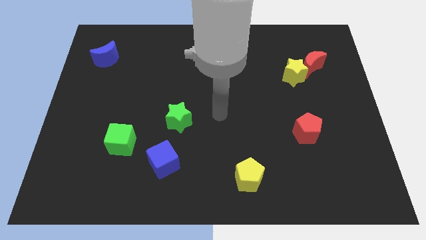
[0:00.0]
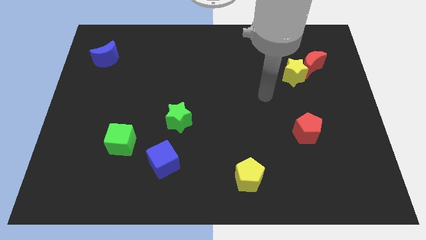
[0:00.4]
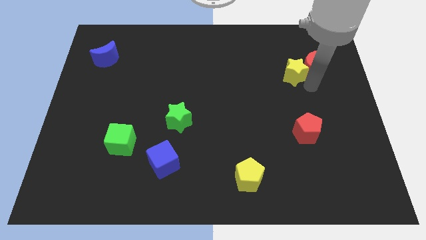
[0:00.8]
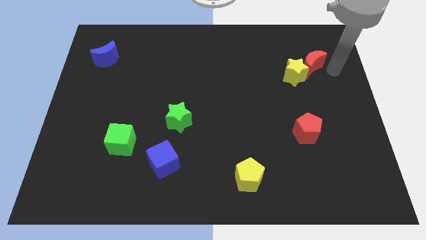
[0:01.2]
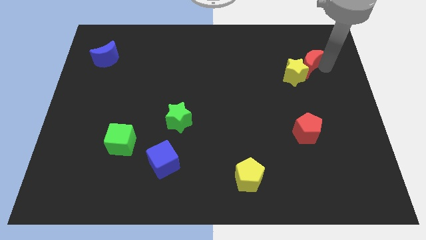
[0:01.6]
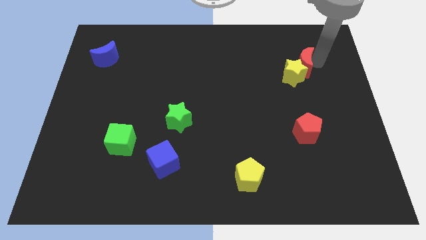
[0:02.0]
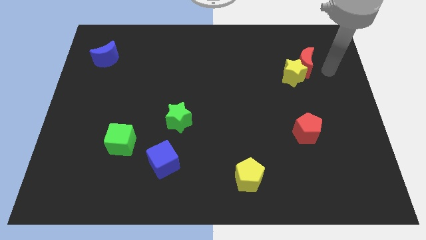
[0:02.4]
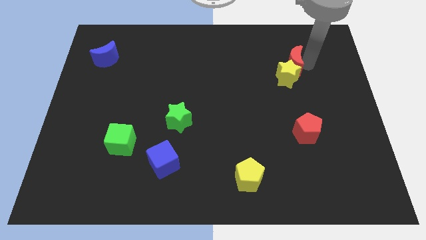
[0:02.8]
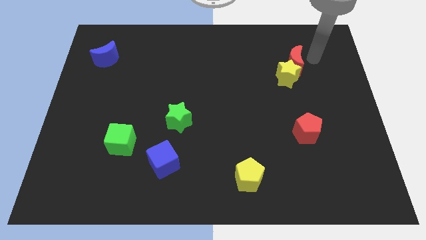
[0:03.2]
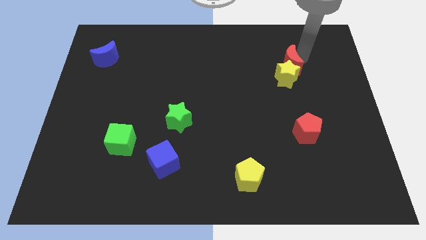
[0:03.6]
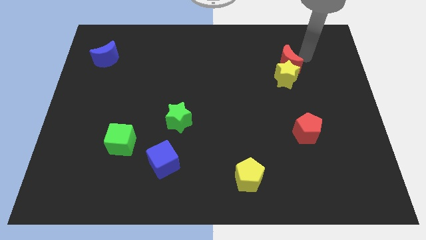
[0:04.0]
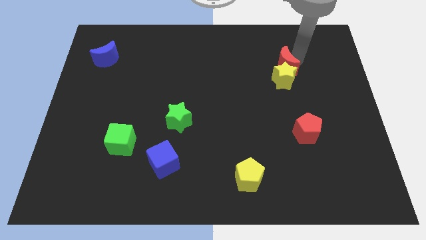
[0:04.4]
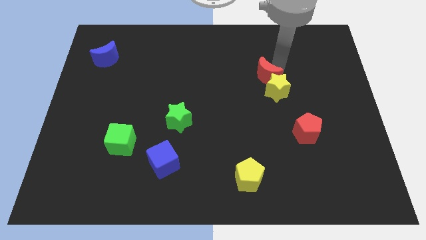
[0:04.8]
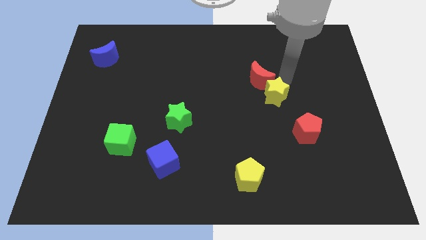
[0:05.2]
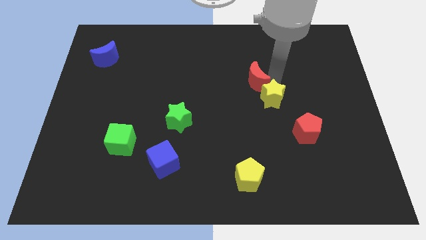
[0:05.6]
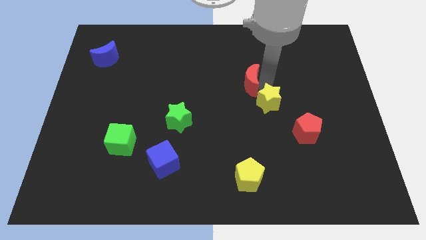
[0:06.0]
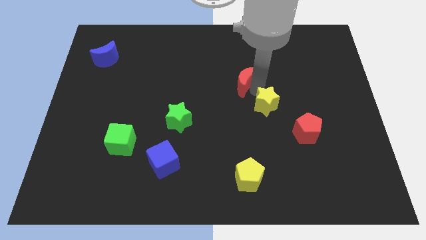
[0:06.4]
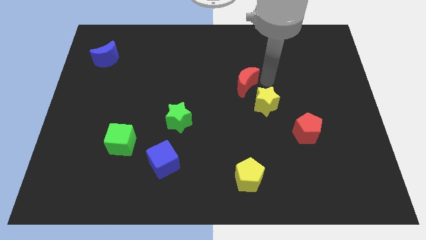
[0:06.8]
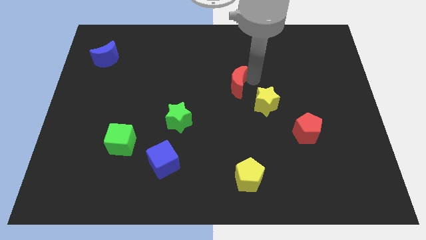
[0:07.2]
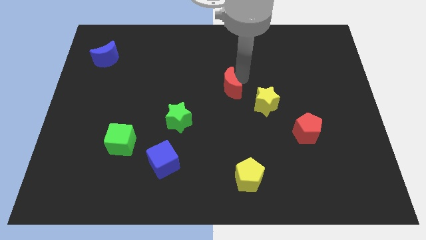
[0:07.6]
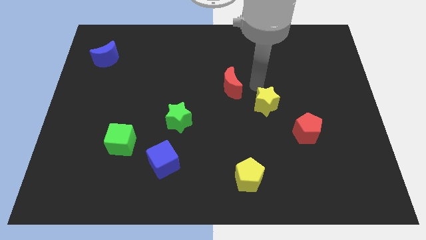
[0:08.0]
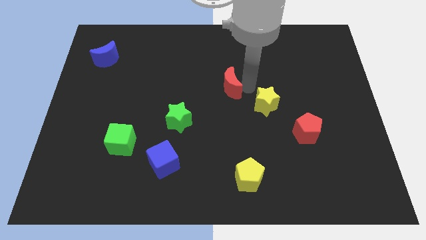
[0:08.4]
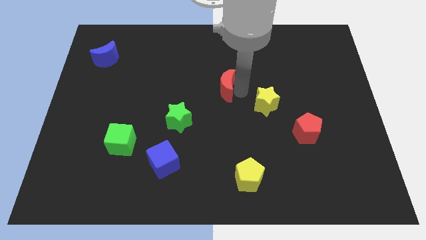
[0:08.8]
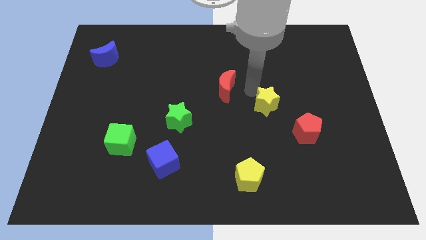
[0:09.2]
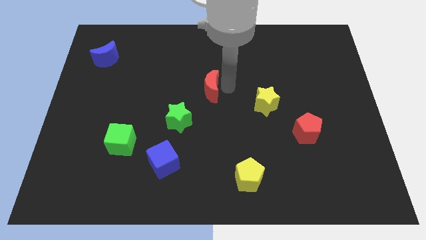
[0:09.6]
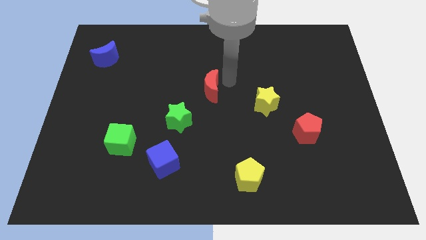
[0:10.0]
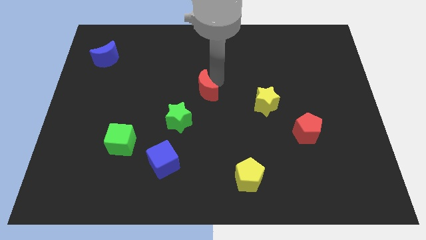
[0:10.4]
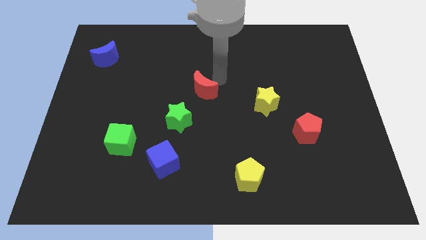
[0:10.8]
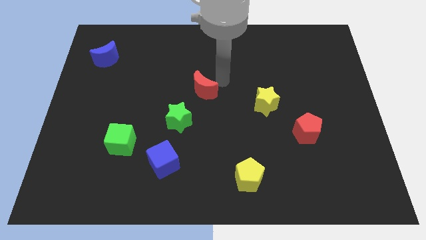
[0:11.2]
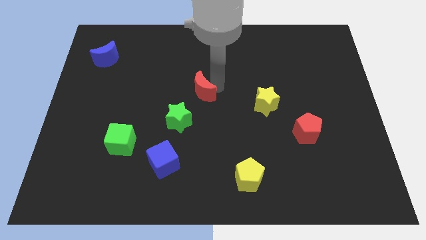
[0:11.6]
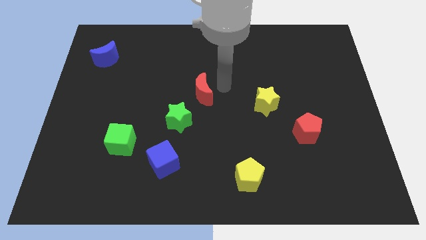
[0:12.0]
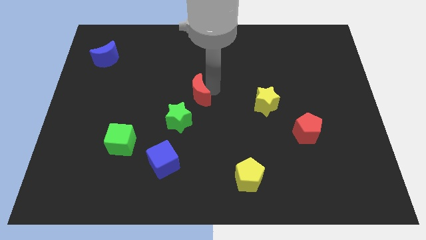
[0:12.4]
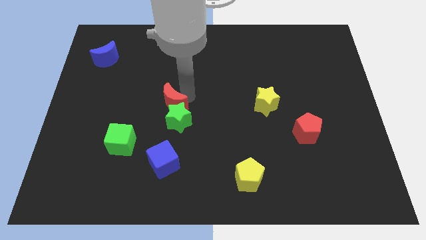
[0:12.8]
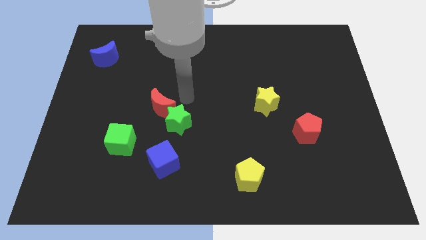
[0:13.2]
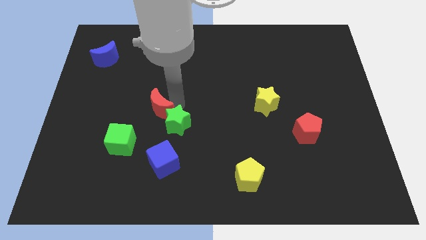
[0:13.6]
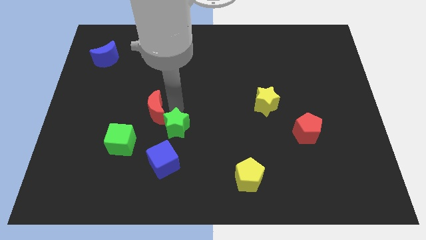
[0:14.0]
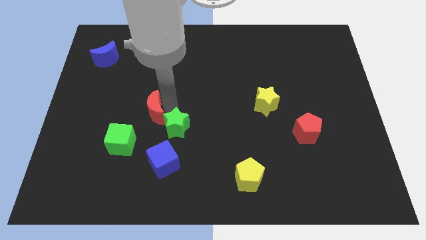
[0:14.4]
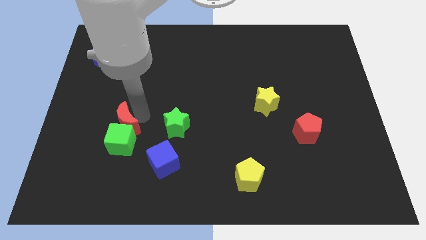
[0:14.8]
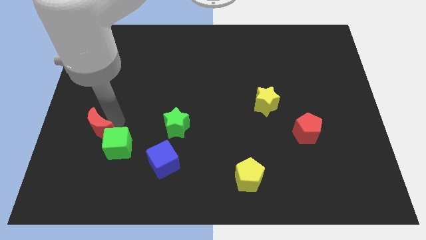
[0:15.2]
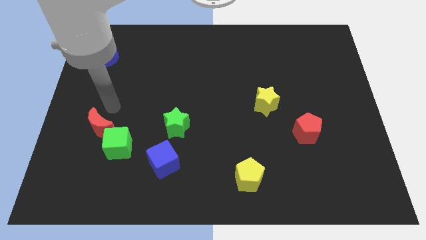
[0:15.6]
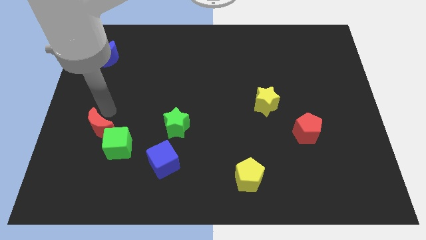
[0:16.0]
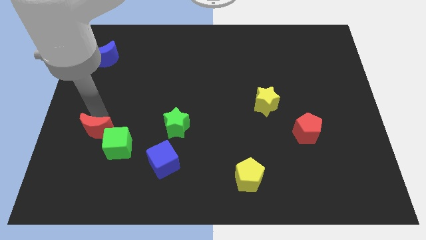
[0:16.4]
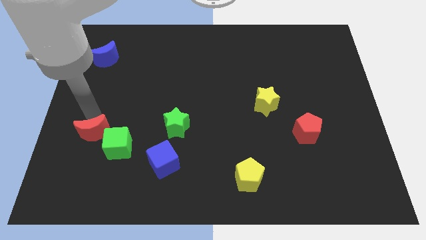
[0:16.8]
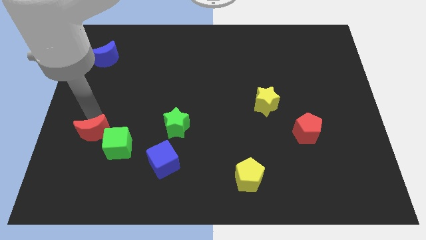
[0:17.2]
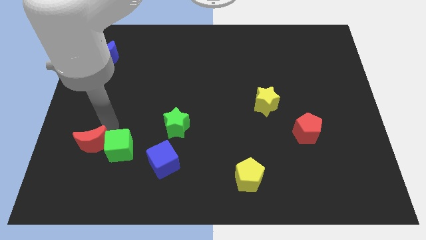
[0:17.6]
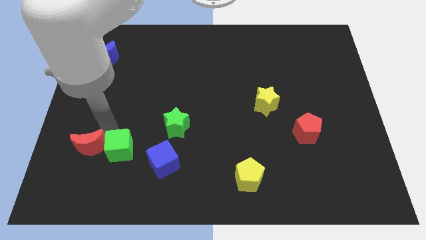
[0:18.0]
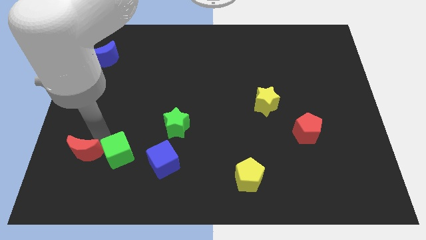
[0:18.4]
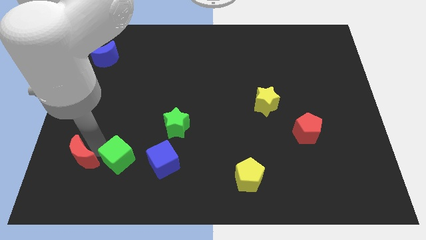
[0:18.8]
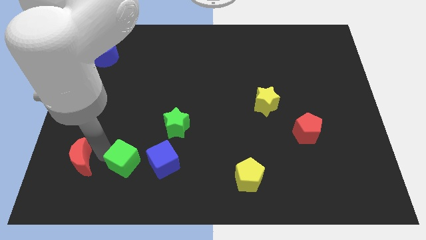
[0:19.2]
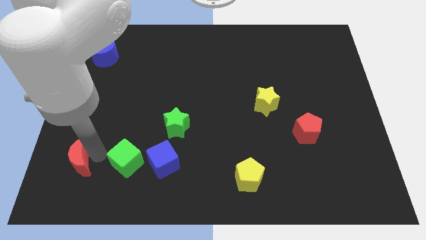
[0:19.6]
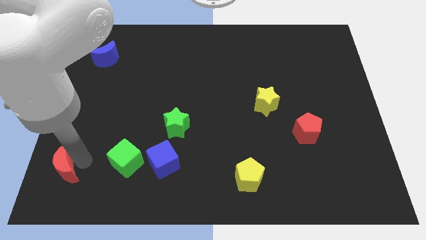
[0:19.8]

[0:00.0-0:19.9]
push the red moon to the bottom left corner

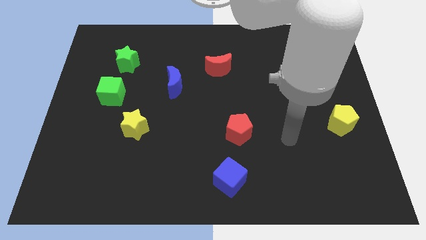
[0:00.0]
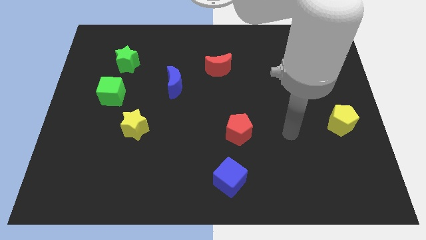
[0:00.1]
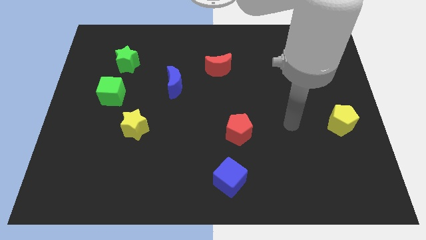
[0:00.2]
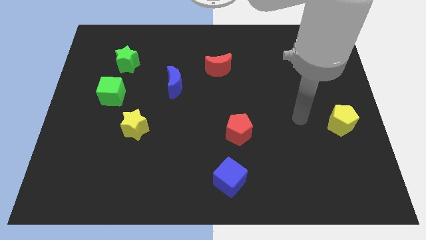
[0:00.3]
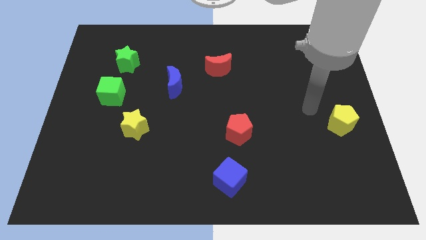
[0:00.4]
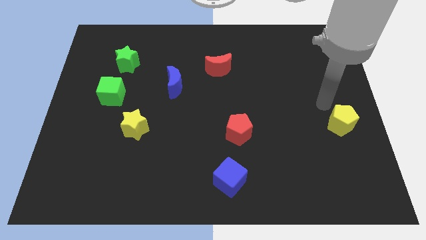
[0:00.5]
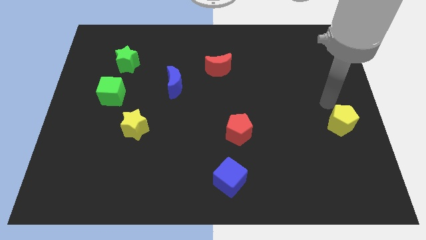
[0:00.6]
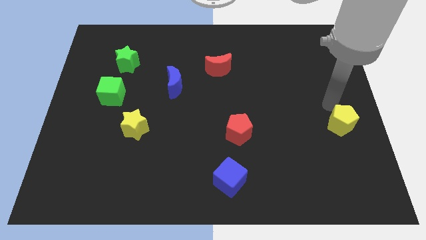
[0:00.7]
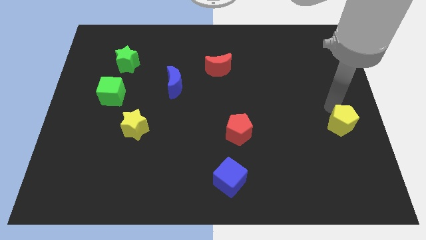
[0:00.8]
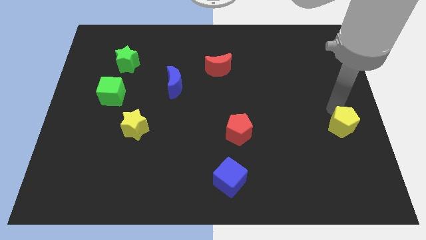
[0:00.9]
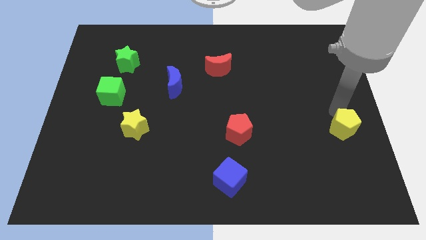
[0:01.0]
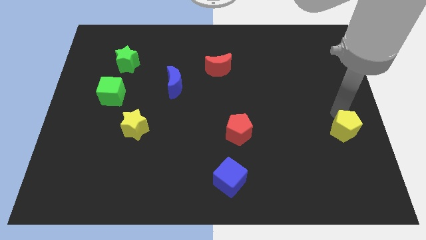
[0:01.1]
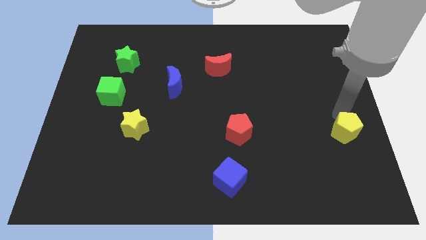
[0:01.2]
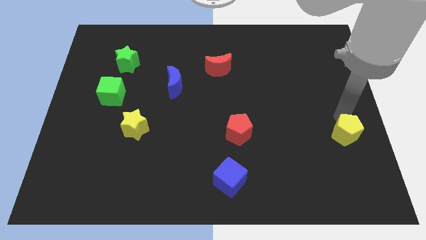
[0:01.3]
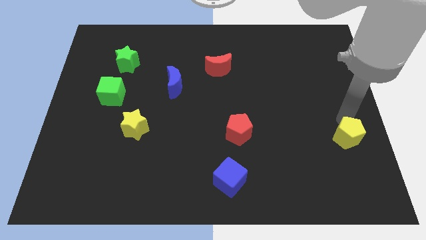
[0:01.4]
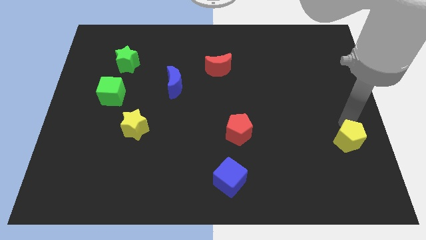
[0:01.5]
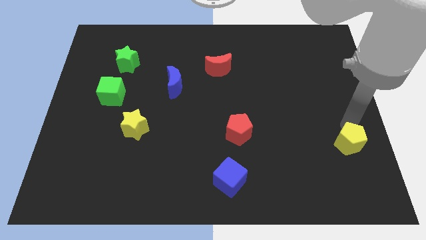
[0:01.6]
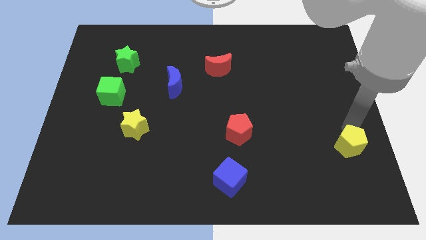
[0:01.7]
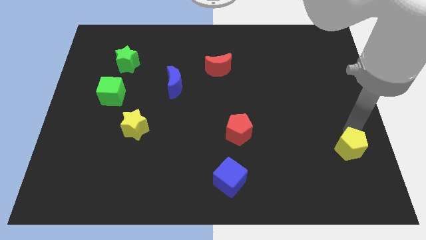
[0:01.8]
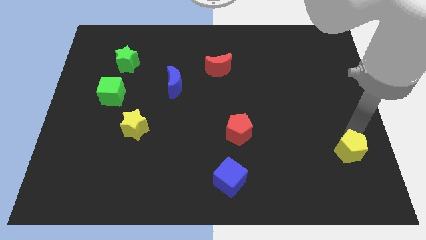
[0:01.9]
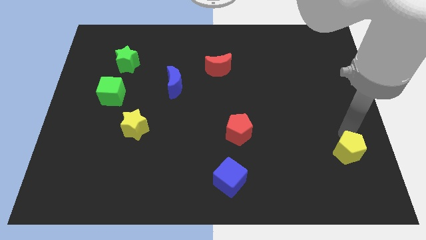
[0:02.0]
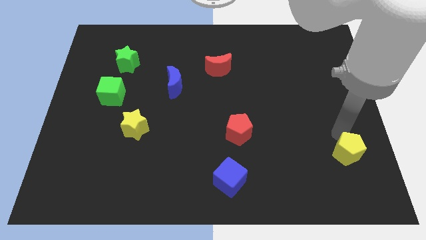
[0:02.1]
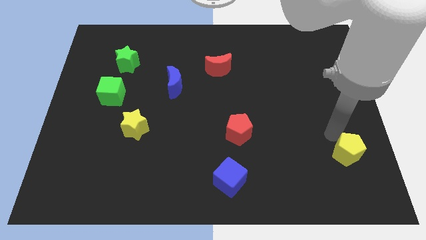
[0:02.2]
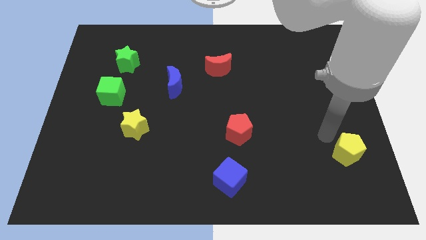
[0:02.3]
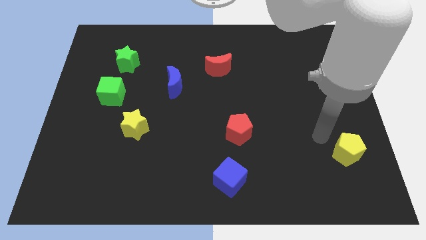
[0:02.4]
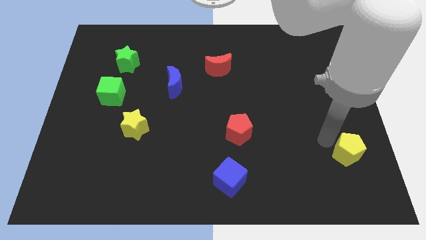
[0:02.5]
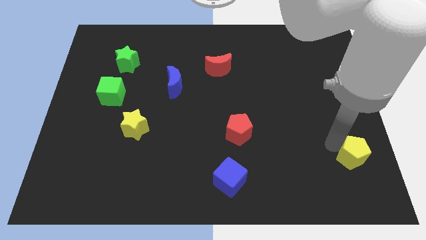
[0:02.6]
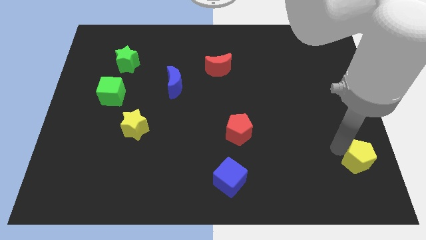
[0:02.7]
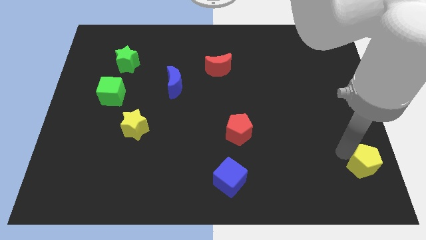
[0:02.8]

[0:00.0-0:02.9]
move the yellow pentagon to the bottom right

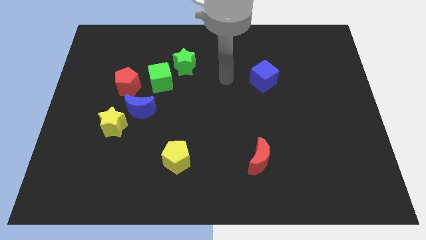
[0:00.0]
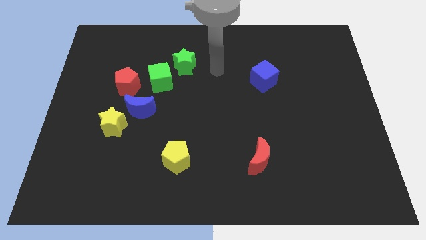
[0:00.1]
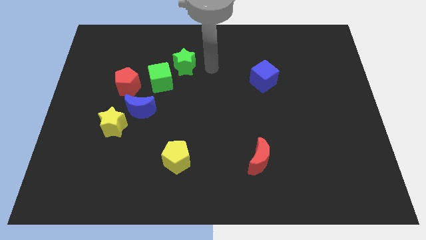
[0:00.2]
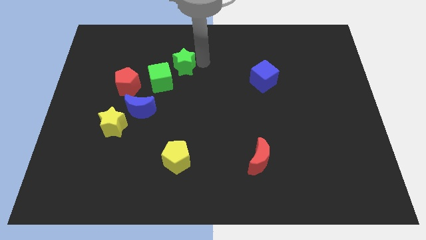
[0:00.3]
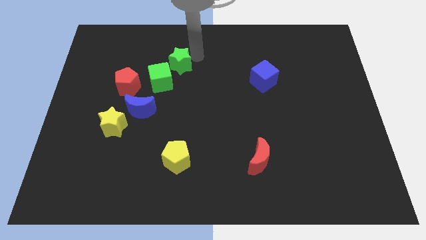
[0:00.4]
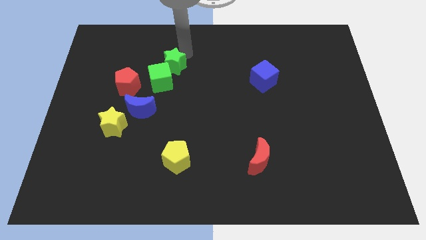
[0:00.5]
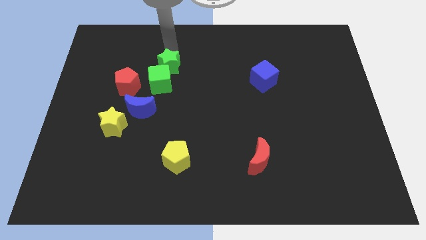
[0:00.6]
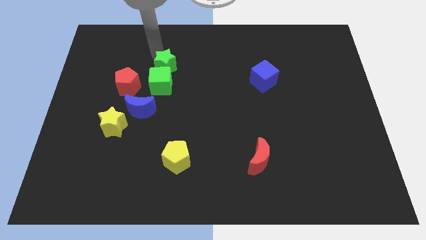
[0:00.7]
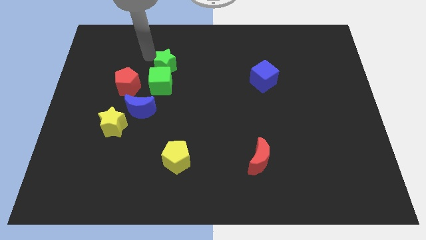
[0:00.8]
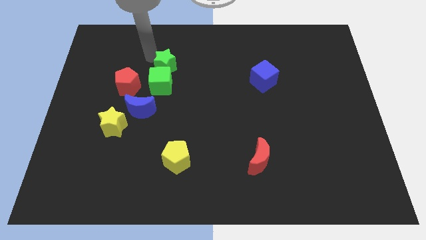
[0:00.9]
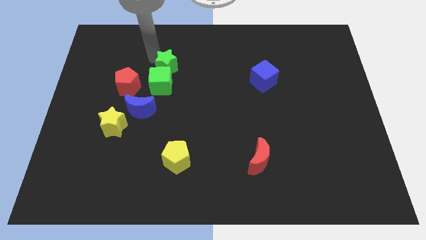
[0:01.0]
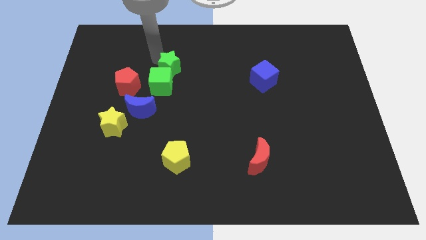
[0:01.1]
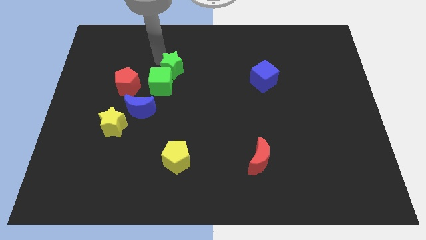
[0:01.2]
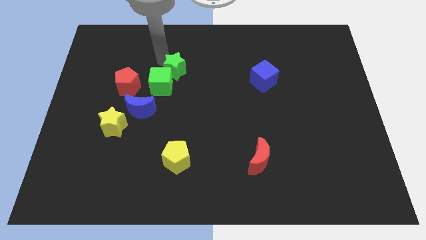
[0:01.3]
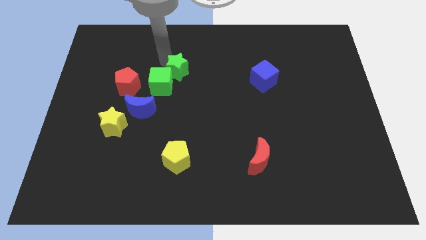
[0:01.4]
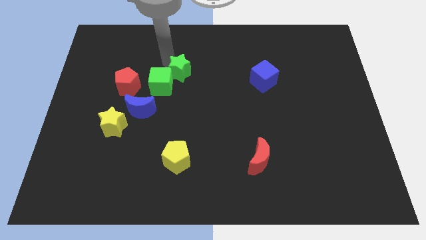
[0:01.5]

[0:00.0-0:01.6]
slide the green star to the center of the board
